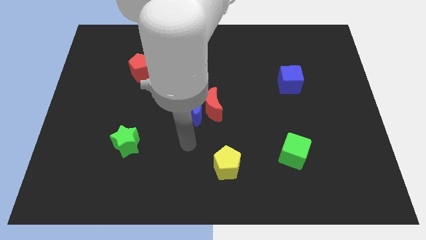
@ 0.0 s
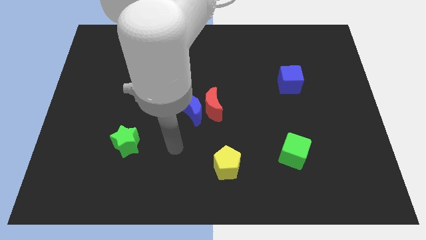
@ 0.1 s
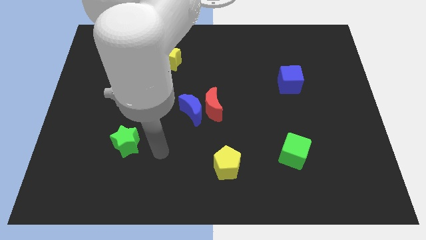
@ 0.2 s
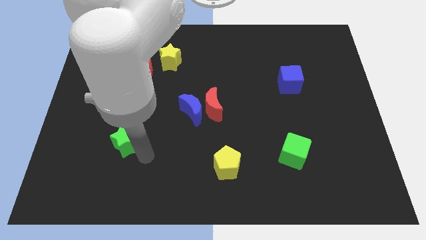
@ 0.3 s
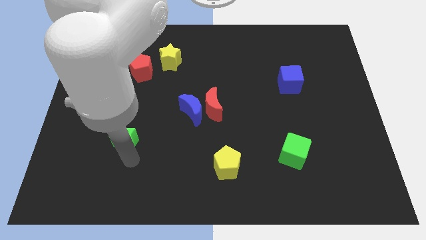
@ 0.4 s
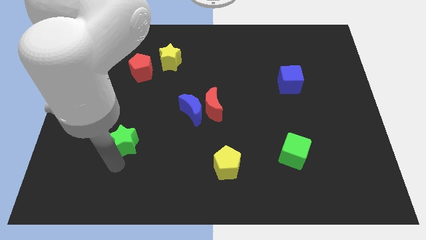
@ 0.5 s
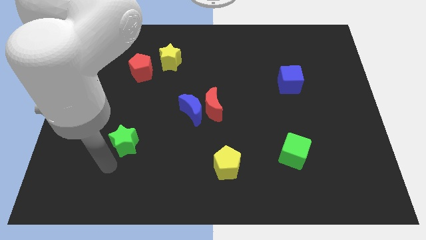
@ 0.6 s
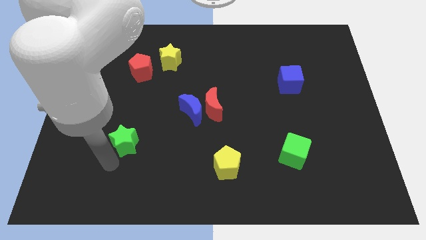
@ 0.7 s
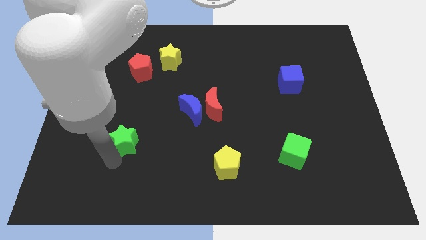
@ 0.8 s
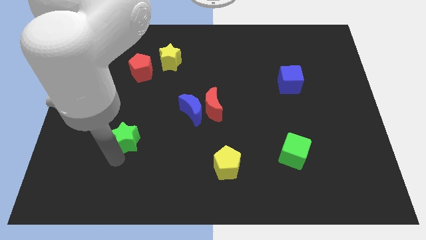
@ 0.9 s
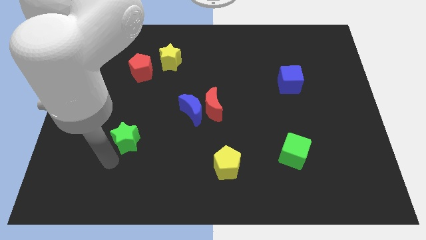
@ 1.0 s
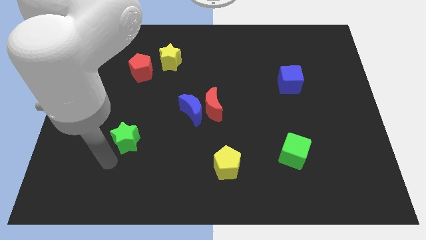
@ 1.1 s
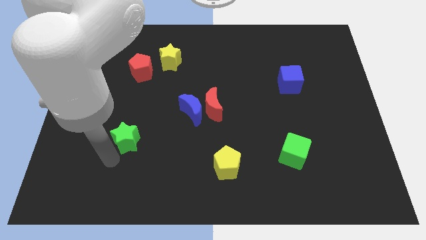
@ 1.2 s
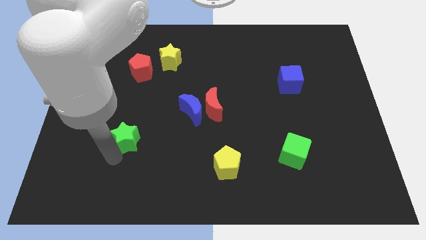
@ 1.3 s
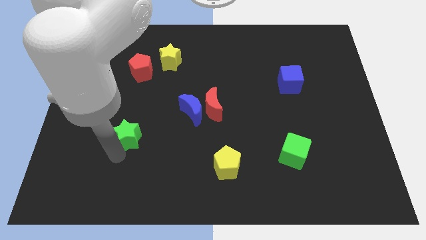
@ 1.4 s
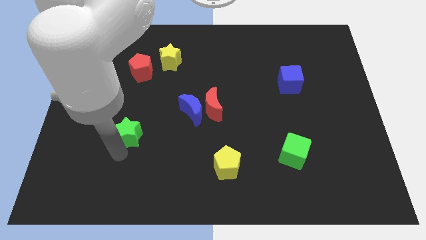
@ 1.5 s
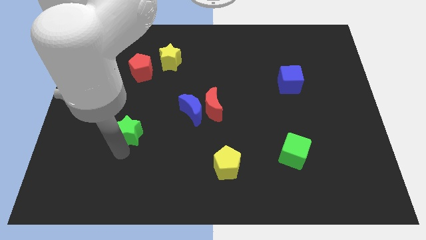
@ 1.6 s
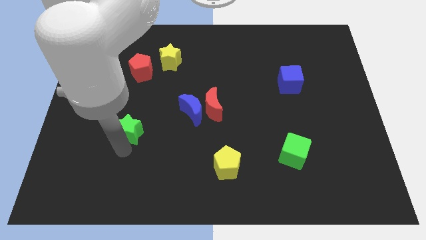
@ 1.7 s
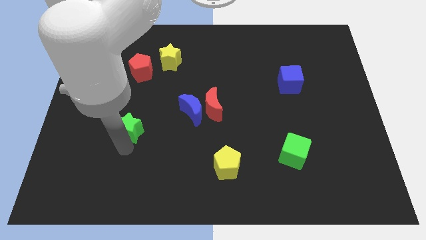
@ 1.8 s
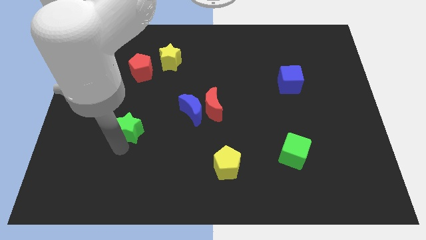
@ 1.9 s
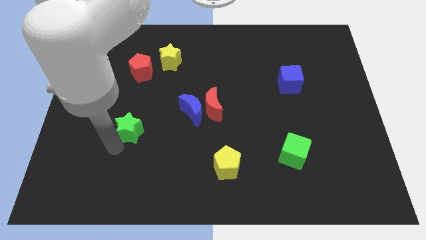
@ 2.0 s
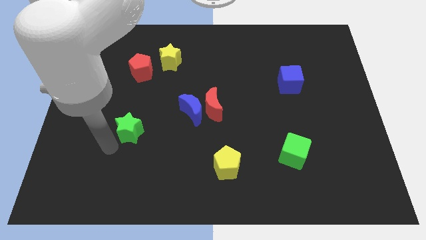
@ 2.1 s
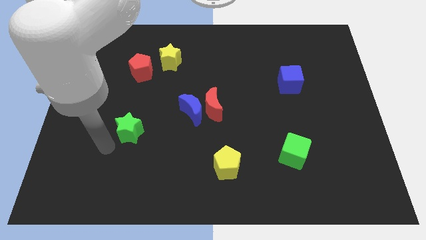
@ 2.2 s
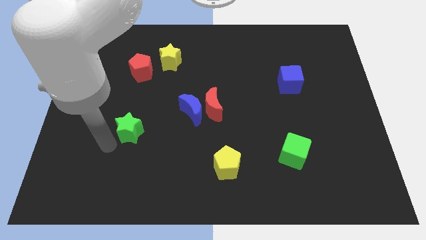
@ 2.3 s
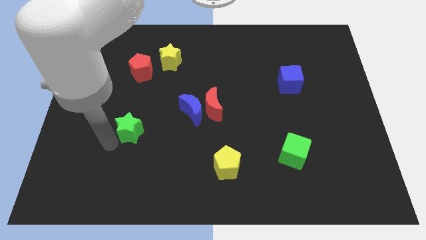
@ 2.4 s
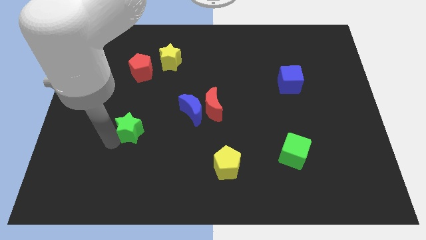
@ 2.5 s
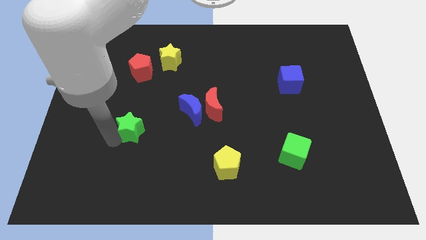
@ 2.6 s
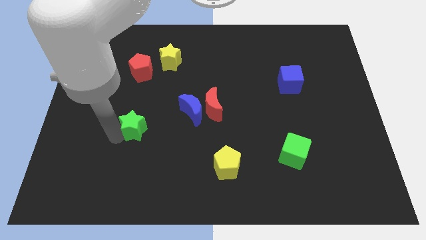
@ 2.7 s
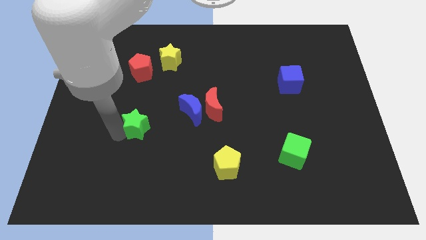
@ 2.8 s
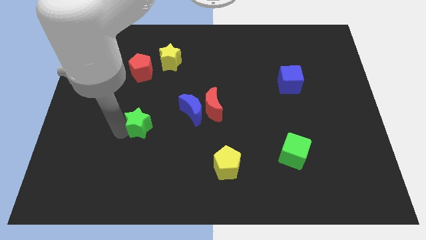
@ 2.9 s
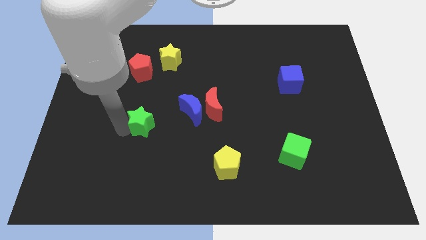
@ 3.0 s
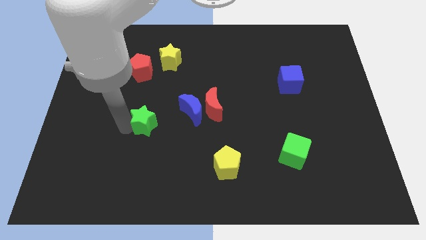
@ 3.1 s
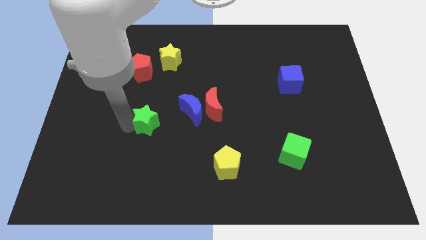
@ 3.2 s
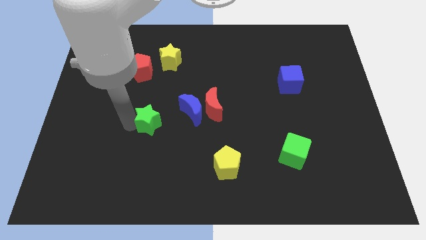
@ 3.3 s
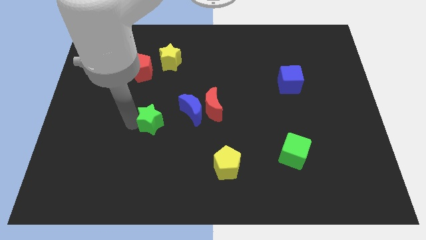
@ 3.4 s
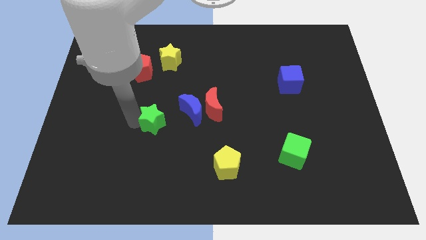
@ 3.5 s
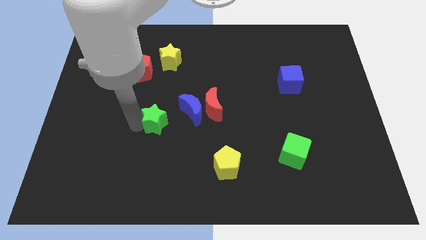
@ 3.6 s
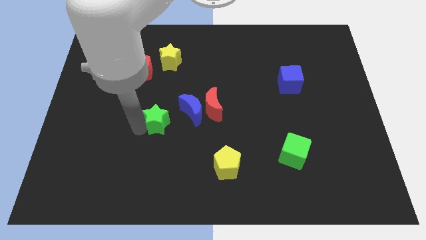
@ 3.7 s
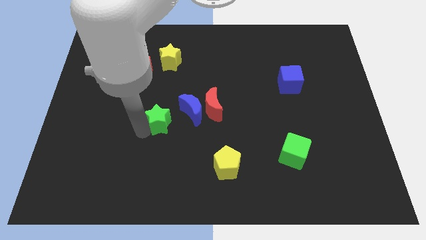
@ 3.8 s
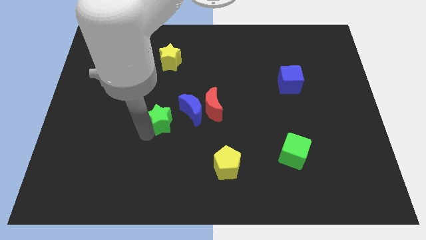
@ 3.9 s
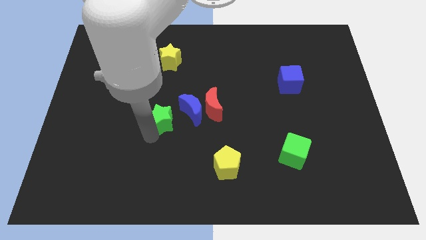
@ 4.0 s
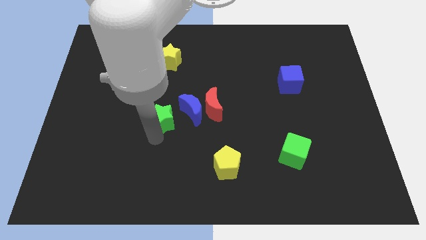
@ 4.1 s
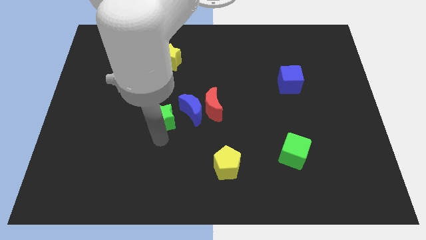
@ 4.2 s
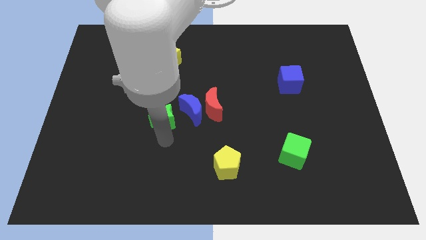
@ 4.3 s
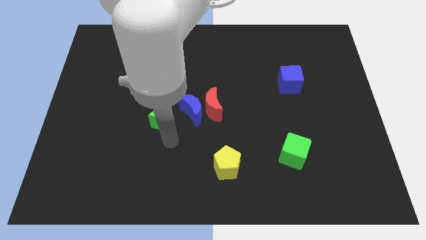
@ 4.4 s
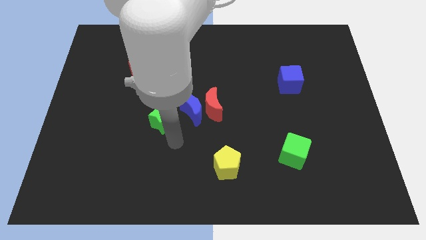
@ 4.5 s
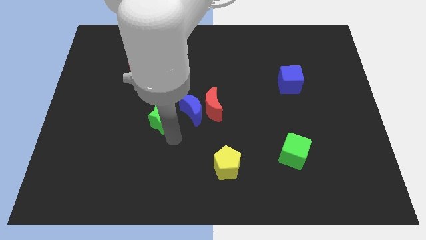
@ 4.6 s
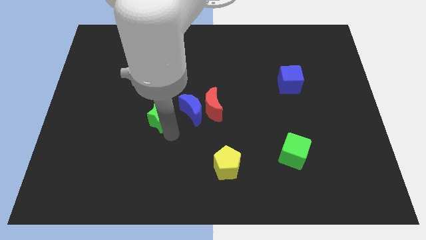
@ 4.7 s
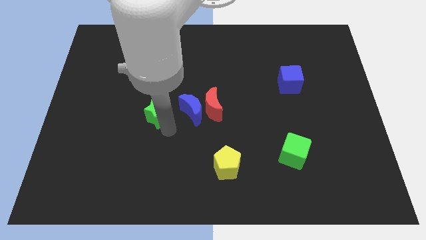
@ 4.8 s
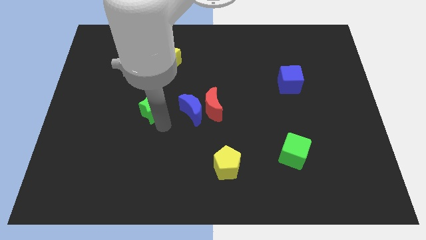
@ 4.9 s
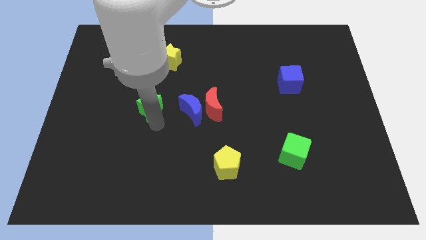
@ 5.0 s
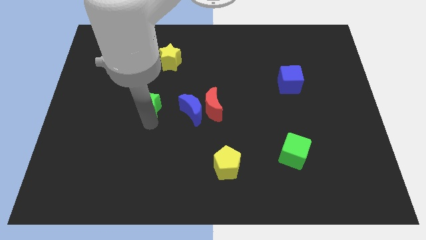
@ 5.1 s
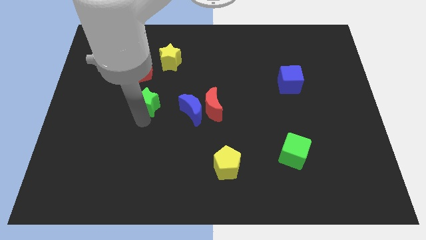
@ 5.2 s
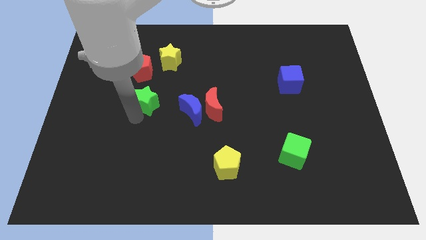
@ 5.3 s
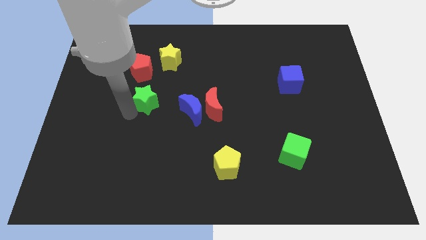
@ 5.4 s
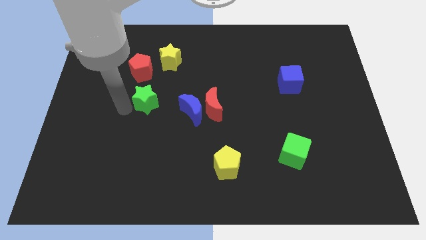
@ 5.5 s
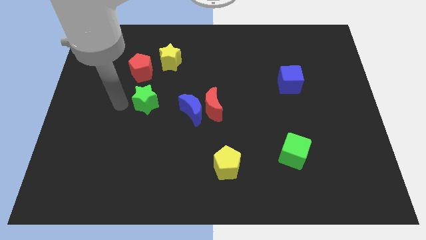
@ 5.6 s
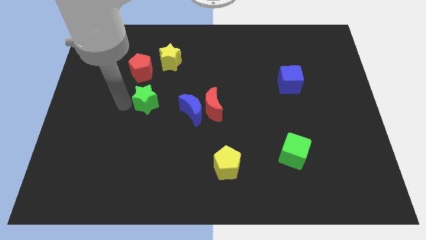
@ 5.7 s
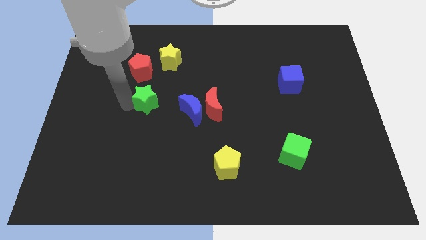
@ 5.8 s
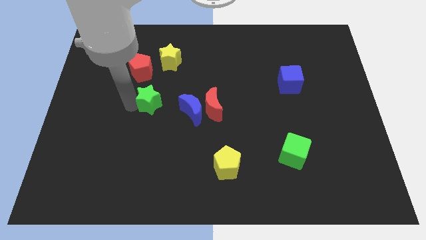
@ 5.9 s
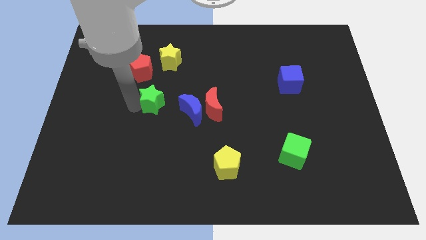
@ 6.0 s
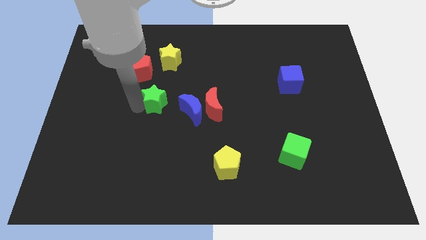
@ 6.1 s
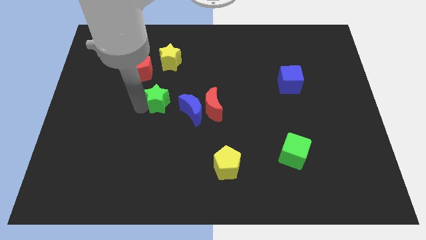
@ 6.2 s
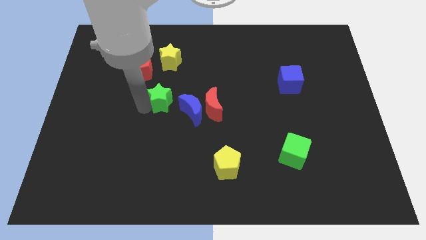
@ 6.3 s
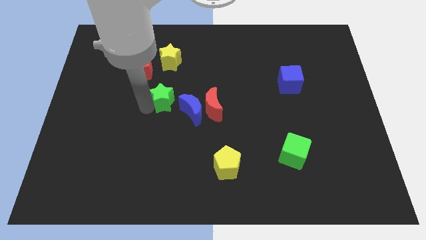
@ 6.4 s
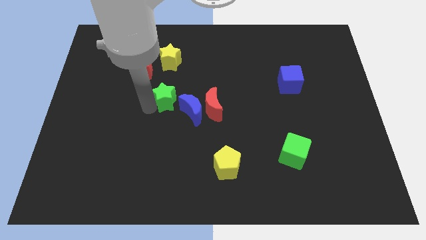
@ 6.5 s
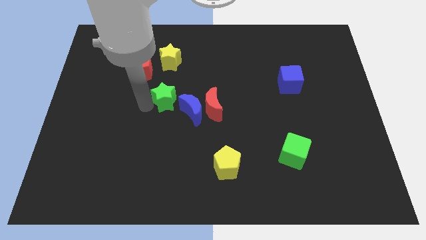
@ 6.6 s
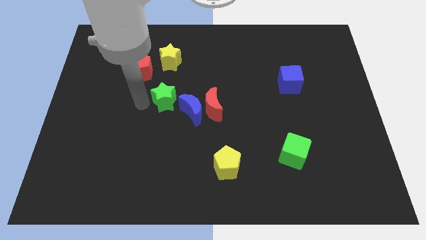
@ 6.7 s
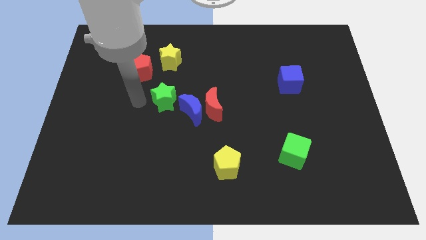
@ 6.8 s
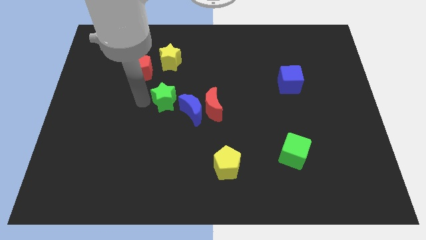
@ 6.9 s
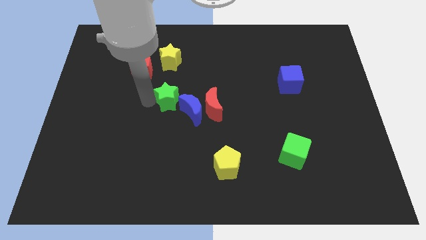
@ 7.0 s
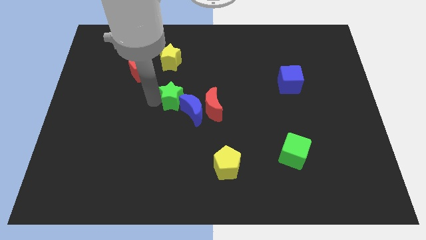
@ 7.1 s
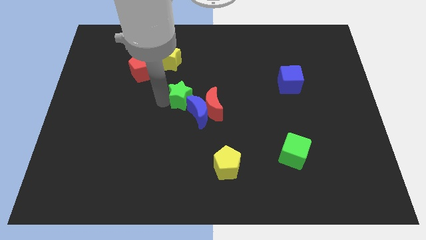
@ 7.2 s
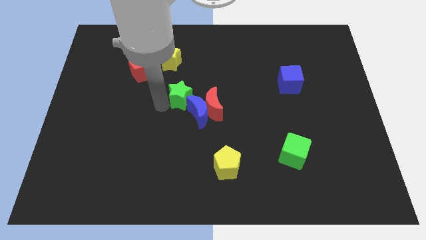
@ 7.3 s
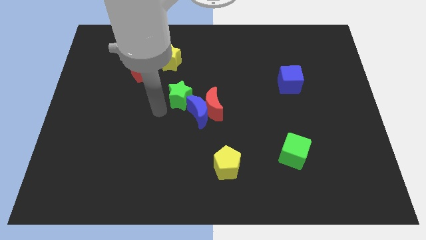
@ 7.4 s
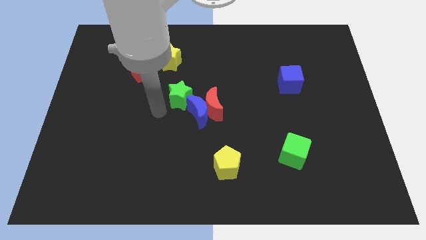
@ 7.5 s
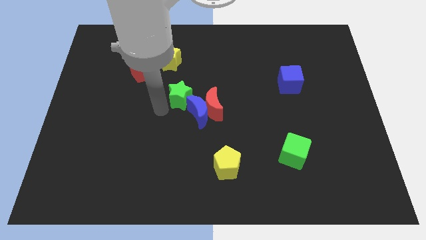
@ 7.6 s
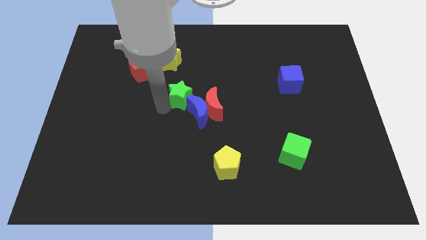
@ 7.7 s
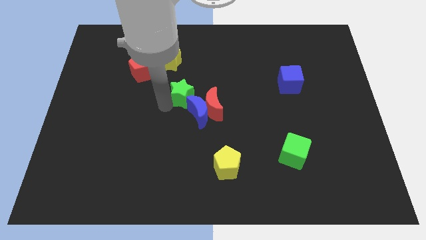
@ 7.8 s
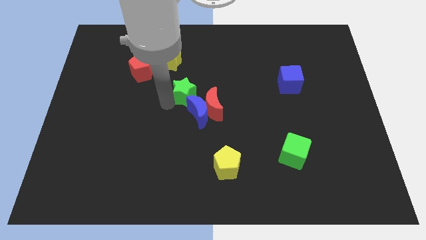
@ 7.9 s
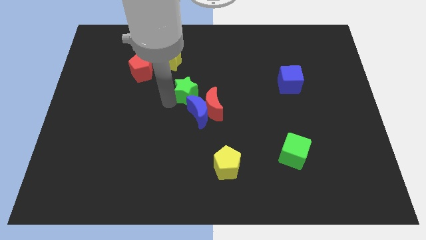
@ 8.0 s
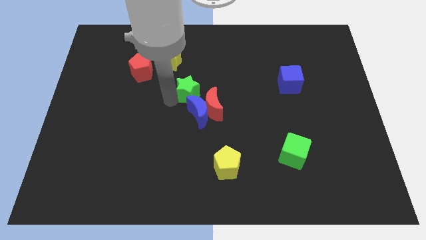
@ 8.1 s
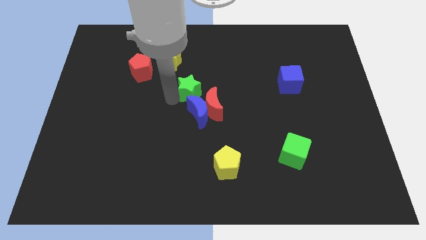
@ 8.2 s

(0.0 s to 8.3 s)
move the green star upwards and then to the right
